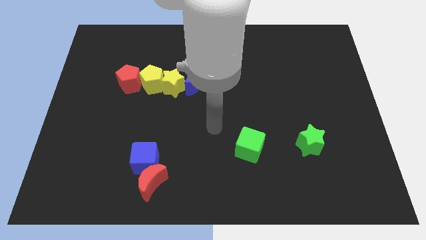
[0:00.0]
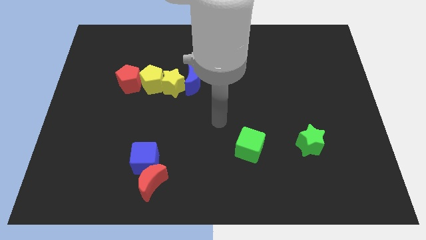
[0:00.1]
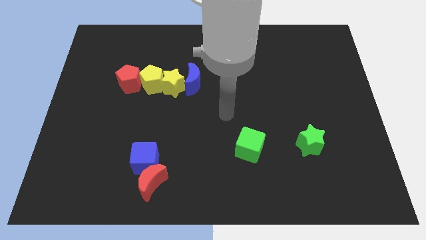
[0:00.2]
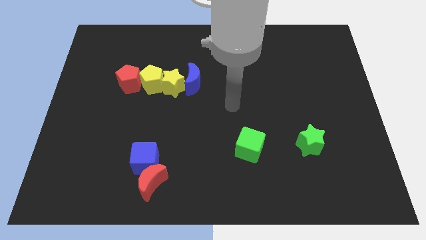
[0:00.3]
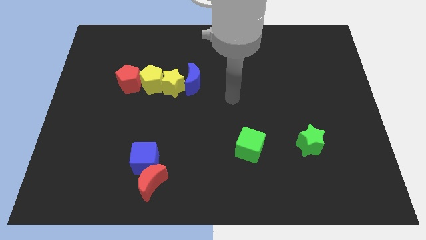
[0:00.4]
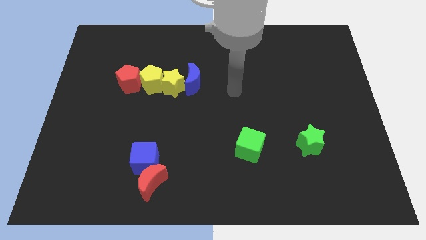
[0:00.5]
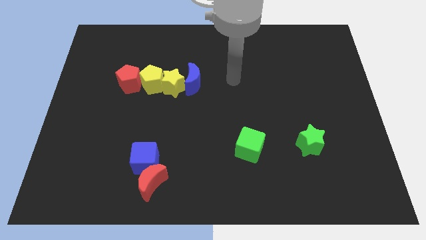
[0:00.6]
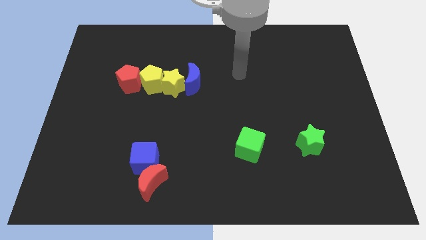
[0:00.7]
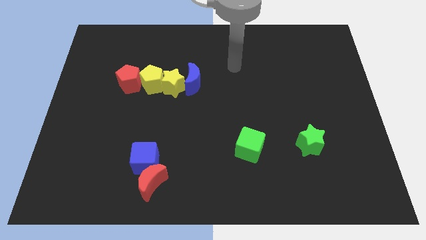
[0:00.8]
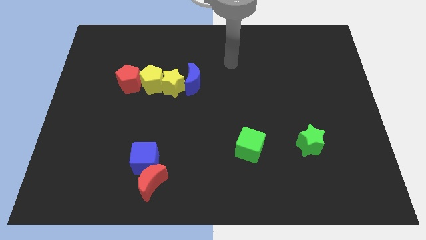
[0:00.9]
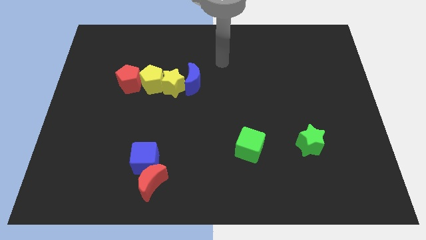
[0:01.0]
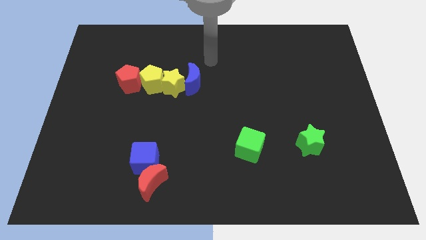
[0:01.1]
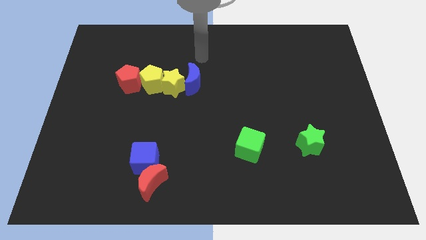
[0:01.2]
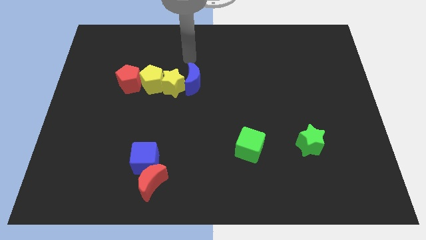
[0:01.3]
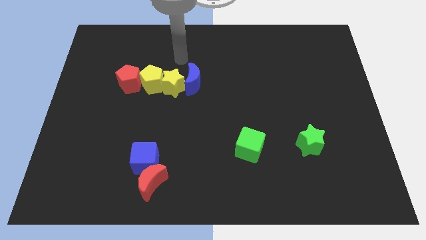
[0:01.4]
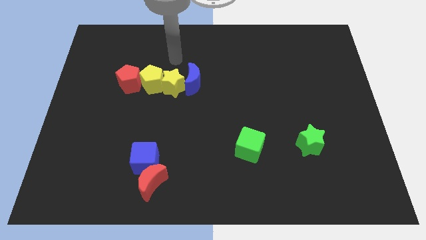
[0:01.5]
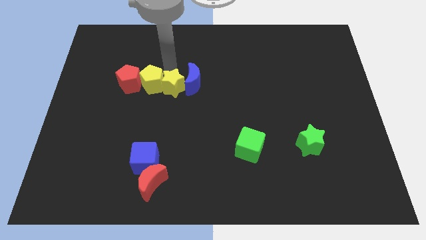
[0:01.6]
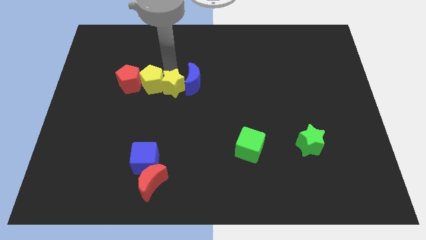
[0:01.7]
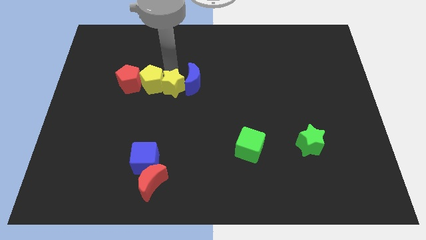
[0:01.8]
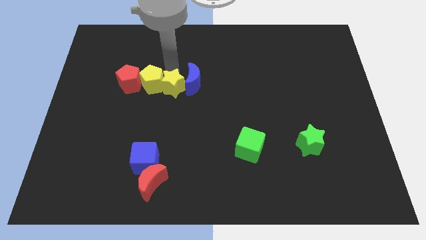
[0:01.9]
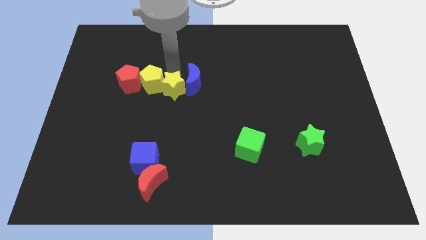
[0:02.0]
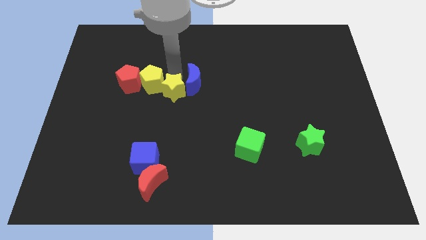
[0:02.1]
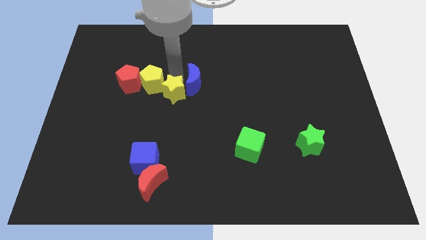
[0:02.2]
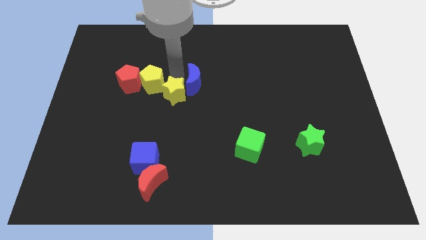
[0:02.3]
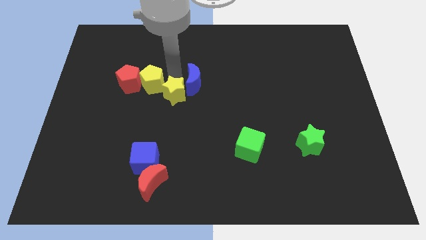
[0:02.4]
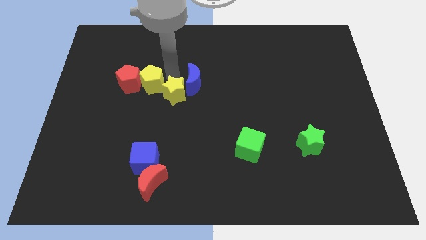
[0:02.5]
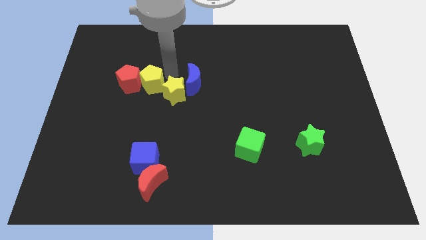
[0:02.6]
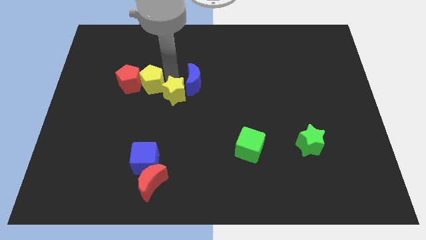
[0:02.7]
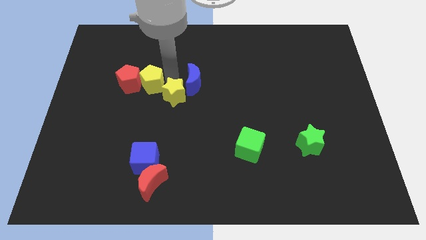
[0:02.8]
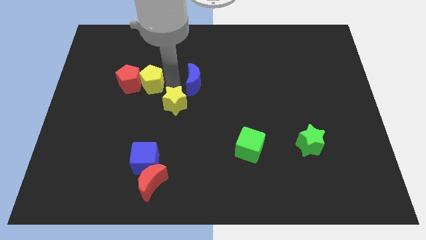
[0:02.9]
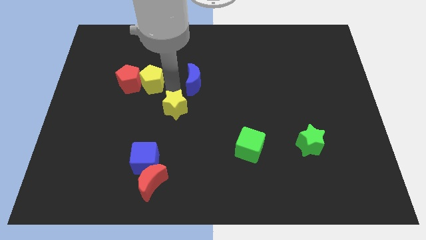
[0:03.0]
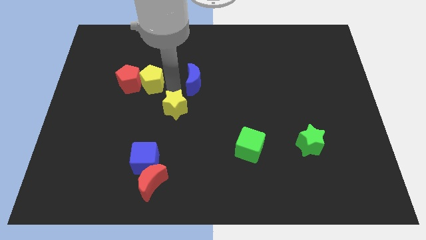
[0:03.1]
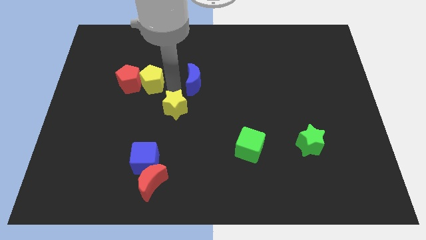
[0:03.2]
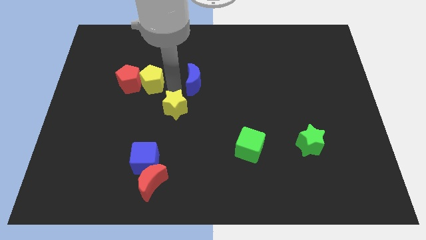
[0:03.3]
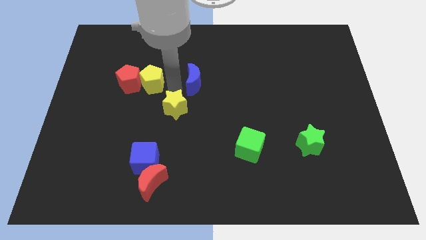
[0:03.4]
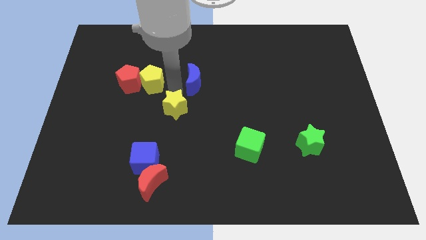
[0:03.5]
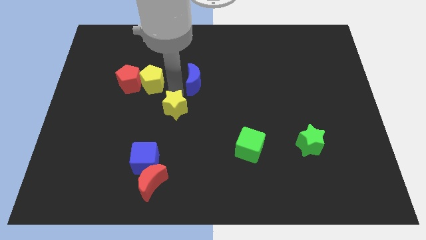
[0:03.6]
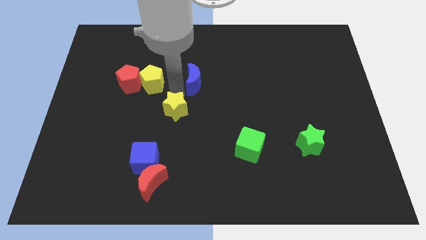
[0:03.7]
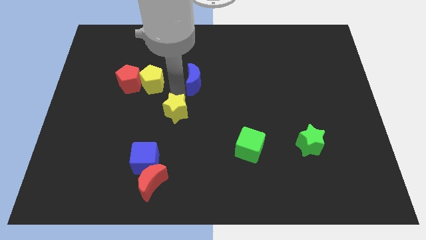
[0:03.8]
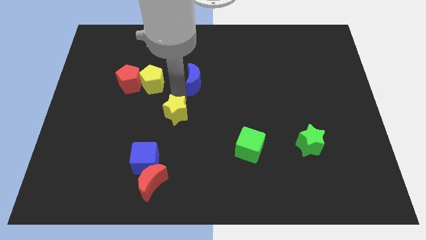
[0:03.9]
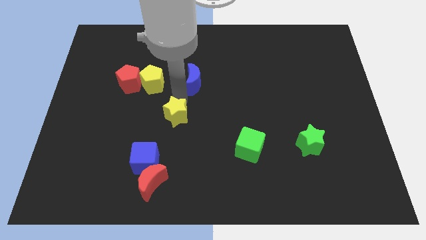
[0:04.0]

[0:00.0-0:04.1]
move the yellow star away from the yellow pentagon and blue moon

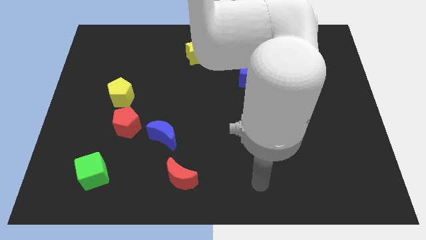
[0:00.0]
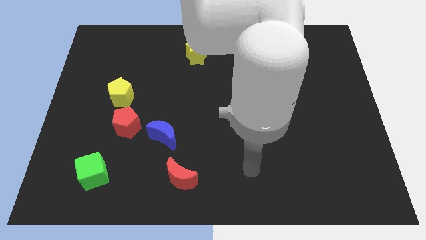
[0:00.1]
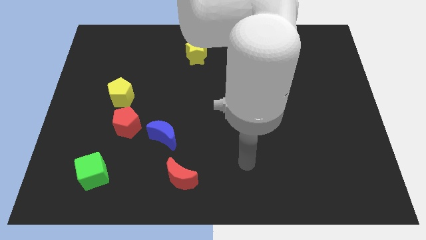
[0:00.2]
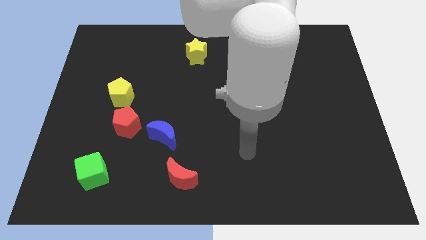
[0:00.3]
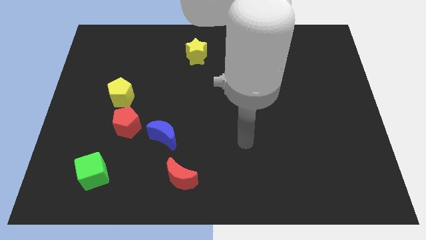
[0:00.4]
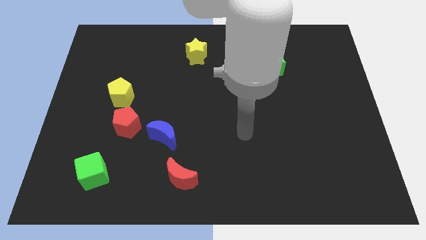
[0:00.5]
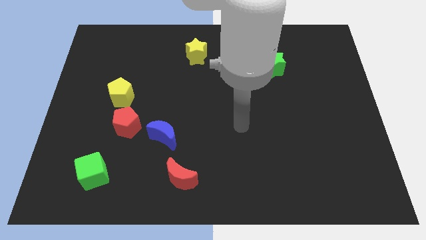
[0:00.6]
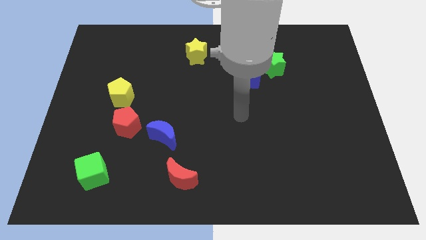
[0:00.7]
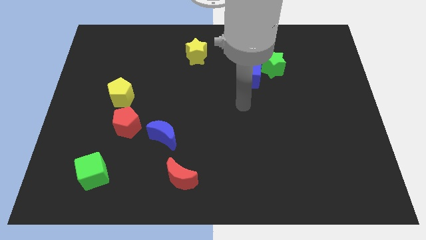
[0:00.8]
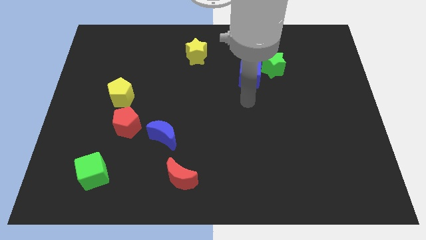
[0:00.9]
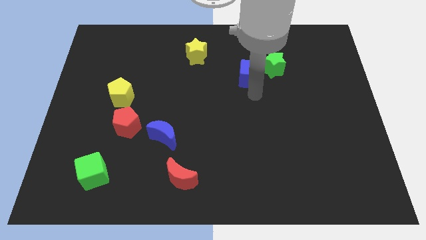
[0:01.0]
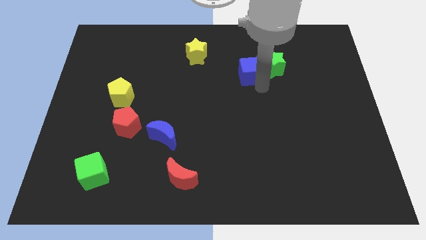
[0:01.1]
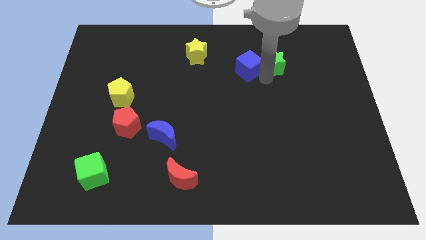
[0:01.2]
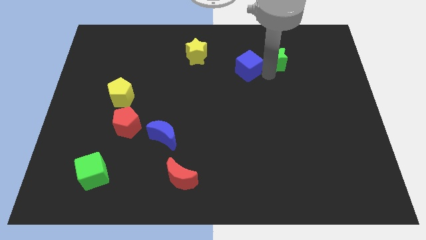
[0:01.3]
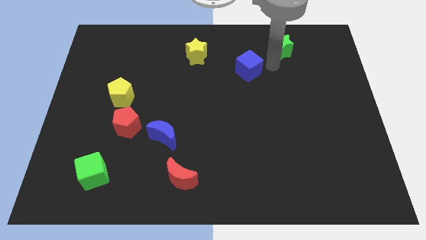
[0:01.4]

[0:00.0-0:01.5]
move the blue cube away from the green star

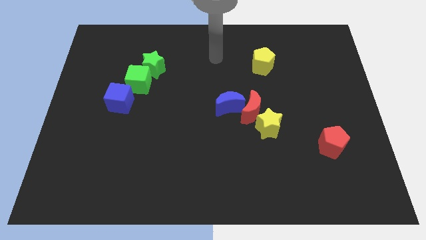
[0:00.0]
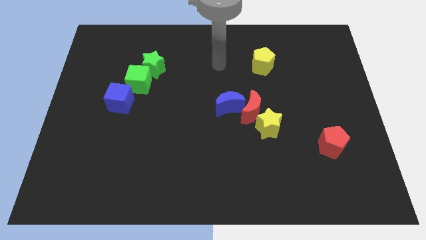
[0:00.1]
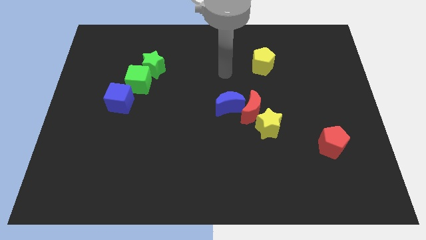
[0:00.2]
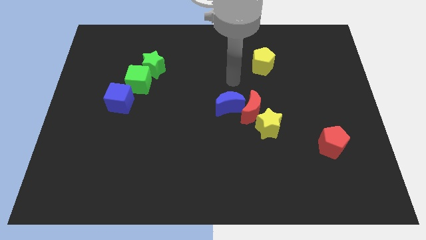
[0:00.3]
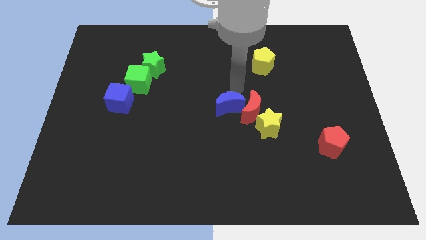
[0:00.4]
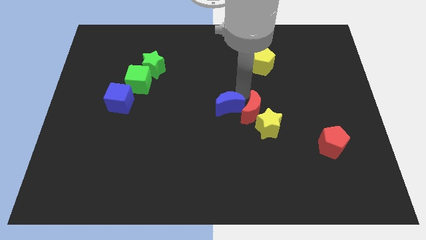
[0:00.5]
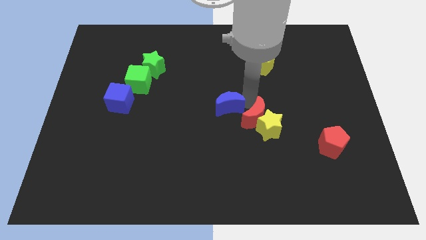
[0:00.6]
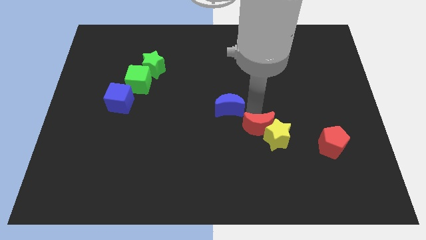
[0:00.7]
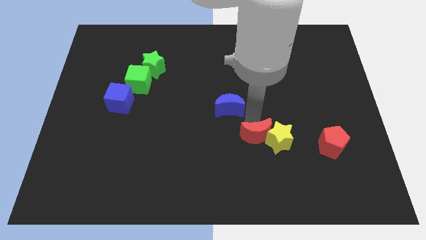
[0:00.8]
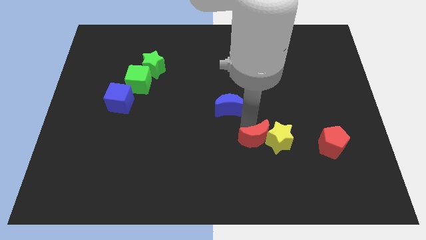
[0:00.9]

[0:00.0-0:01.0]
move the blue moon away from the red moon

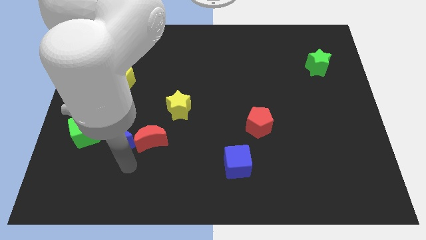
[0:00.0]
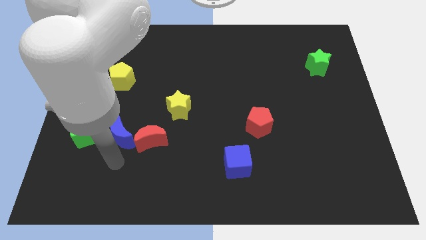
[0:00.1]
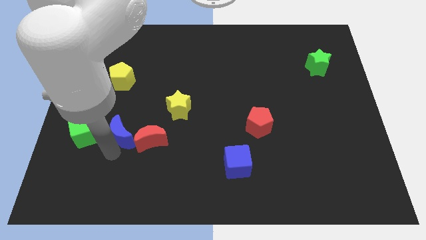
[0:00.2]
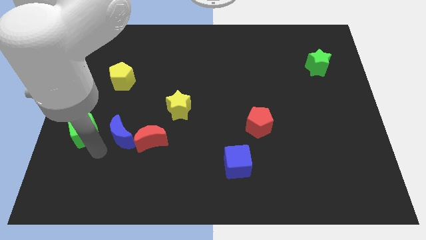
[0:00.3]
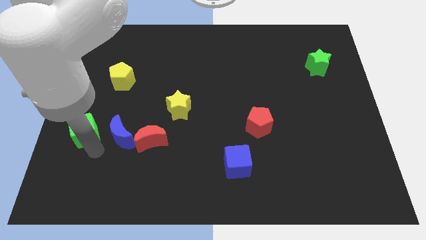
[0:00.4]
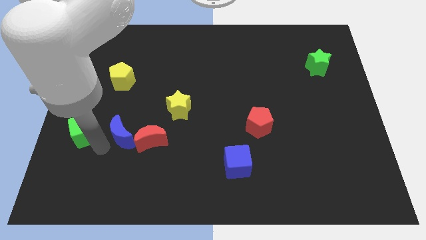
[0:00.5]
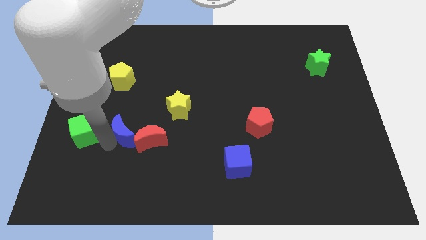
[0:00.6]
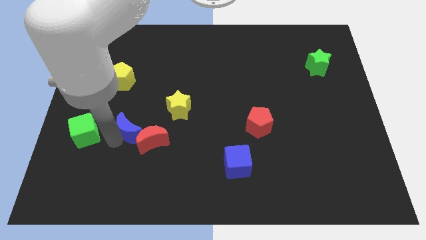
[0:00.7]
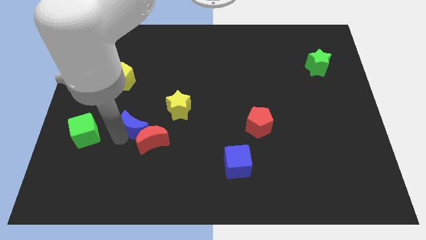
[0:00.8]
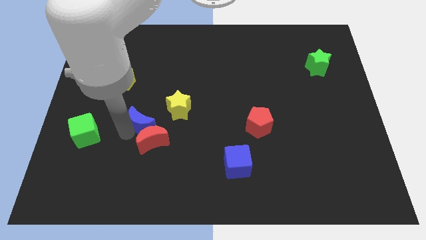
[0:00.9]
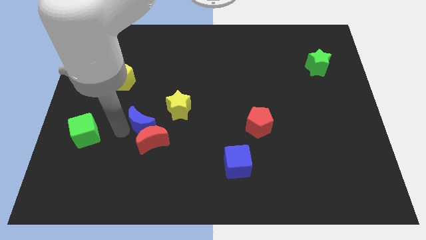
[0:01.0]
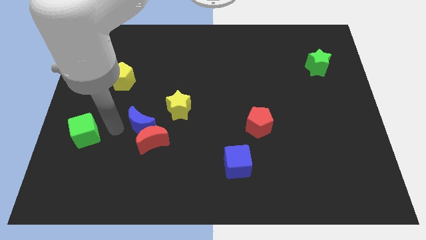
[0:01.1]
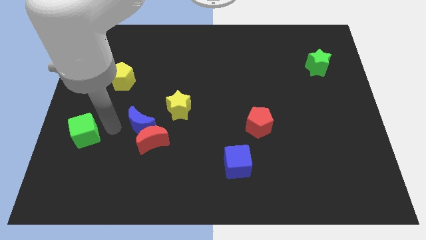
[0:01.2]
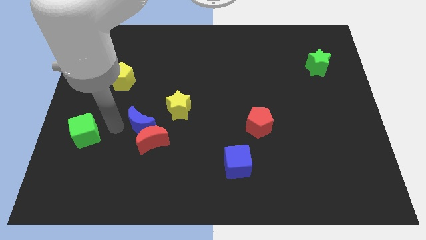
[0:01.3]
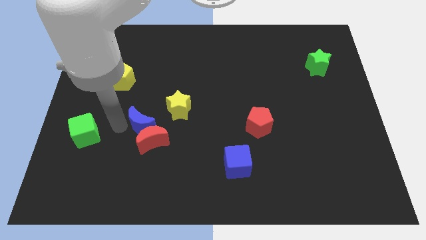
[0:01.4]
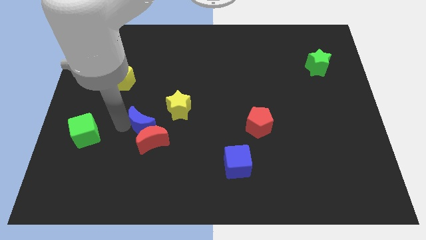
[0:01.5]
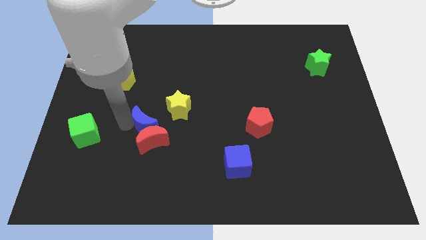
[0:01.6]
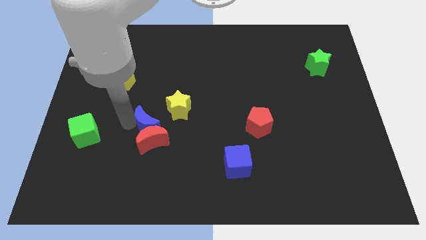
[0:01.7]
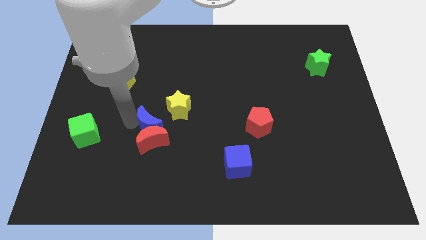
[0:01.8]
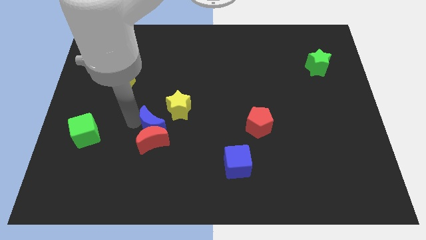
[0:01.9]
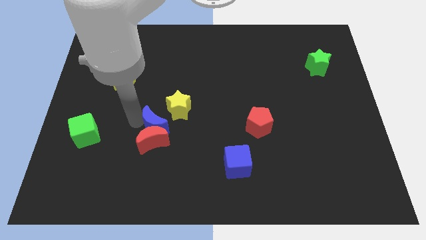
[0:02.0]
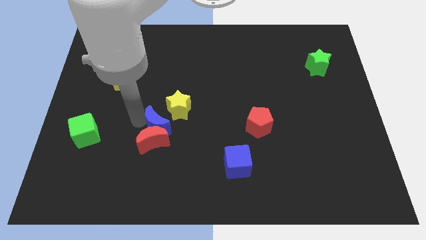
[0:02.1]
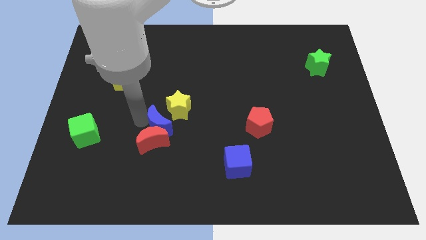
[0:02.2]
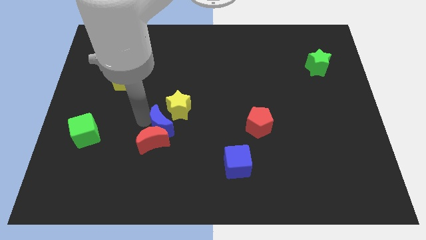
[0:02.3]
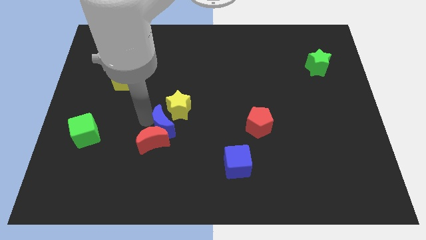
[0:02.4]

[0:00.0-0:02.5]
separate the blue moon from the red moon and green cube

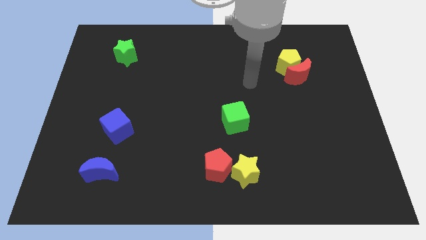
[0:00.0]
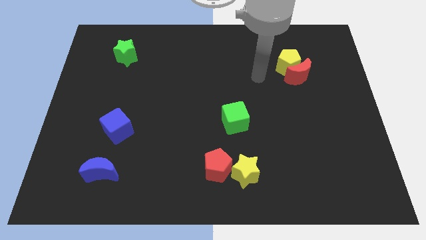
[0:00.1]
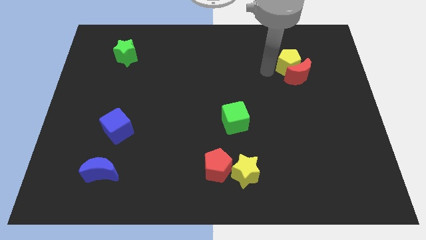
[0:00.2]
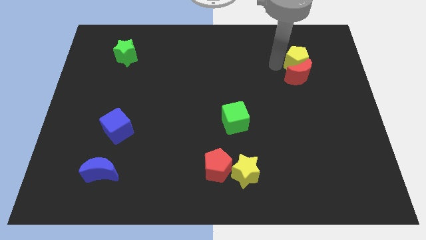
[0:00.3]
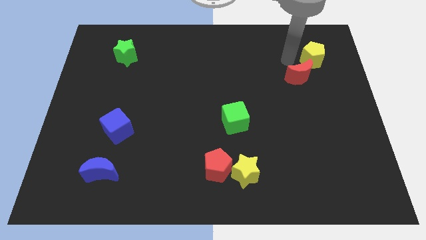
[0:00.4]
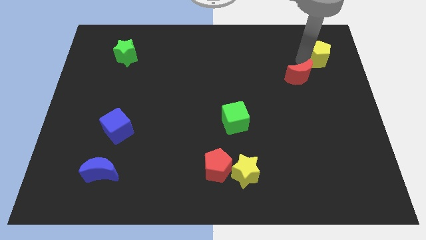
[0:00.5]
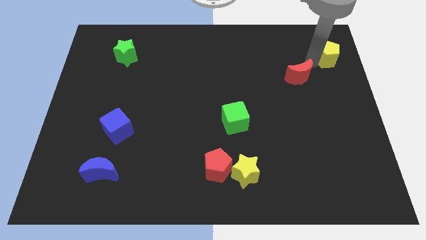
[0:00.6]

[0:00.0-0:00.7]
separate the red moon from the yellow pentagon
